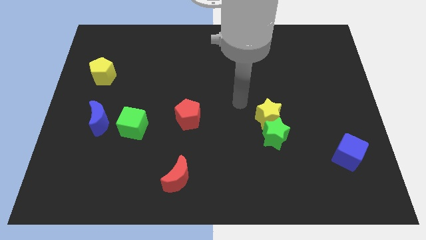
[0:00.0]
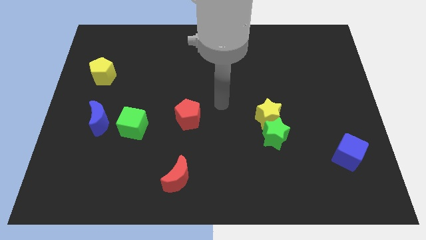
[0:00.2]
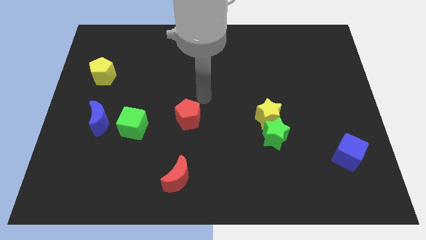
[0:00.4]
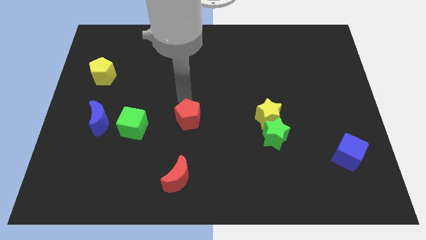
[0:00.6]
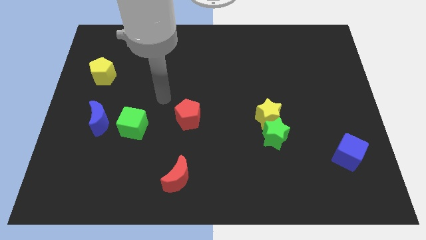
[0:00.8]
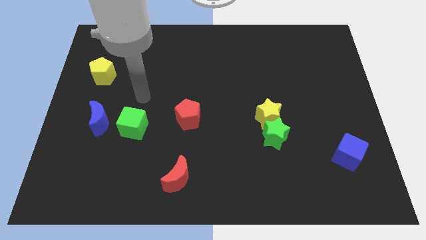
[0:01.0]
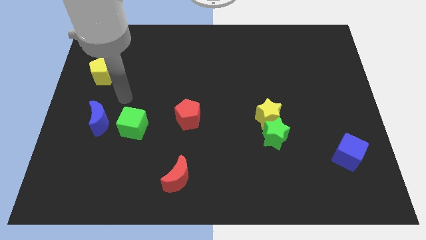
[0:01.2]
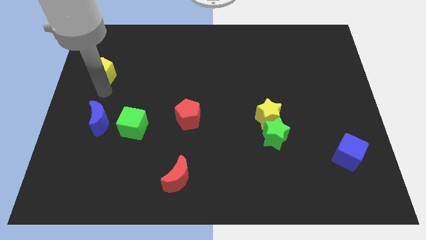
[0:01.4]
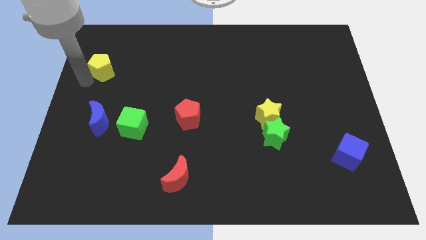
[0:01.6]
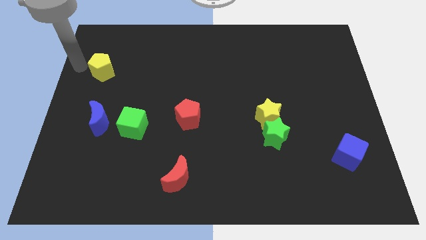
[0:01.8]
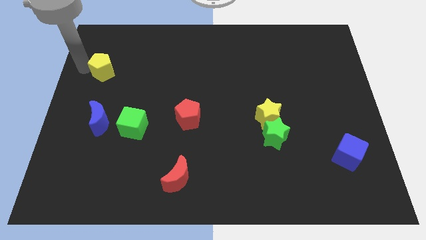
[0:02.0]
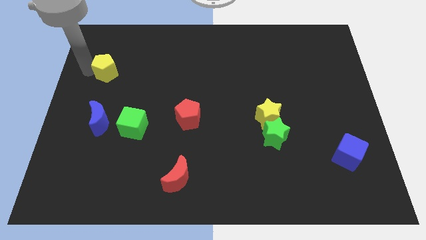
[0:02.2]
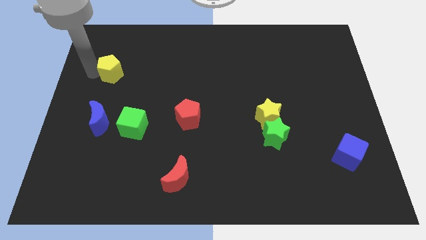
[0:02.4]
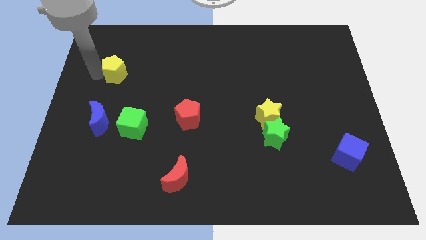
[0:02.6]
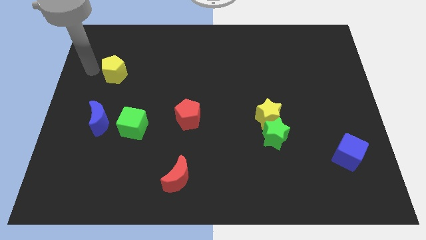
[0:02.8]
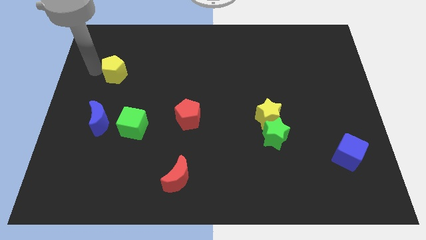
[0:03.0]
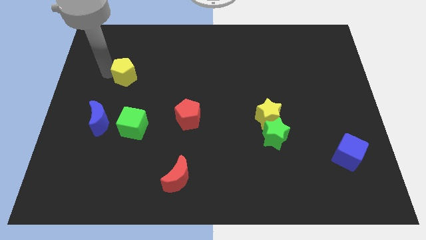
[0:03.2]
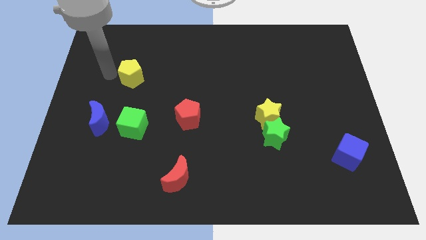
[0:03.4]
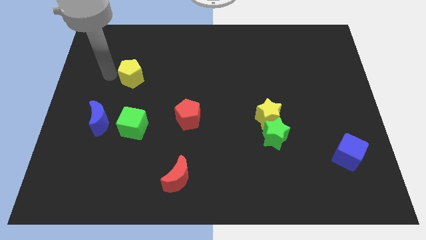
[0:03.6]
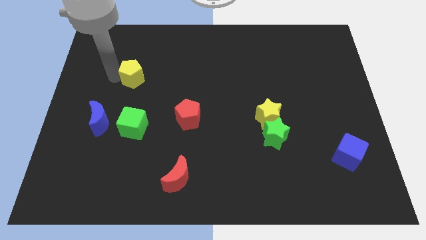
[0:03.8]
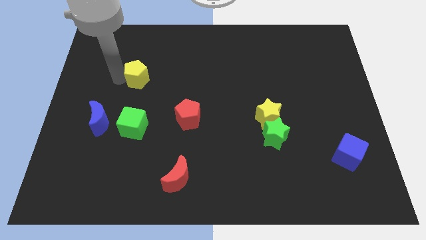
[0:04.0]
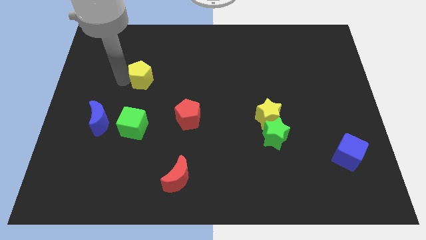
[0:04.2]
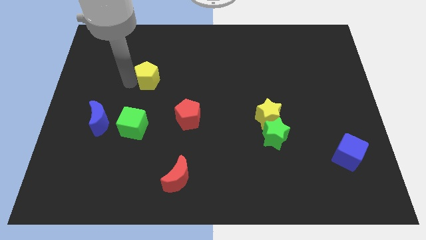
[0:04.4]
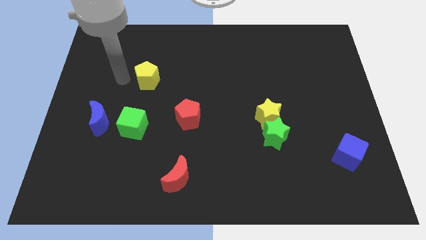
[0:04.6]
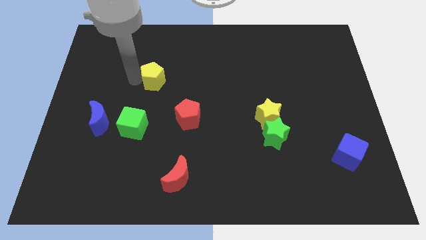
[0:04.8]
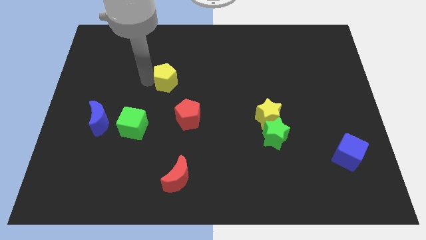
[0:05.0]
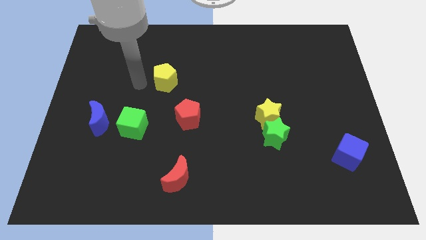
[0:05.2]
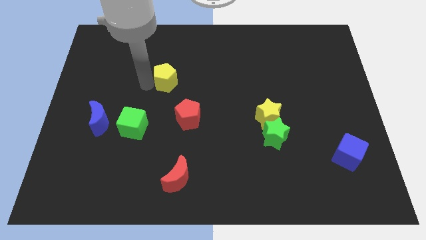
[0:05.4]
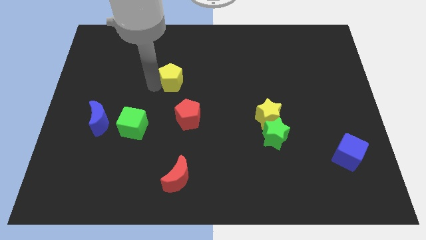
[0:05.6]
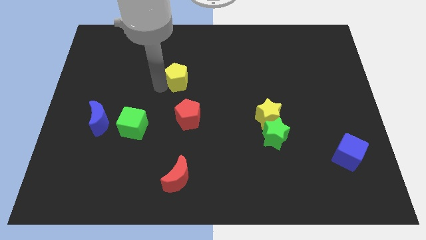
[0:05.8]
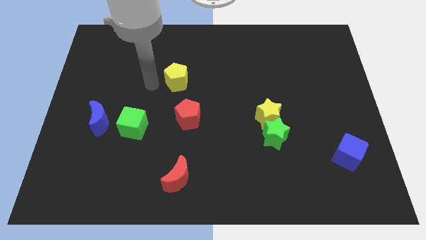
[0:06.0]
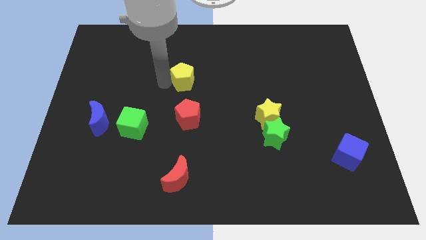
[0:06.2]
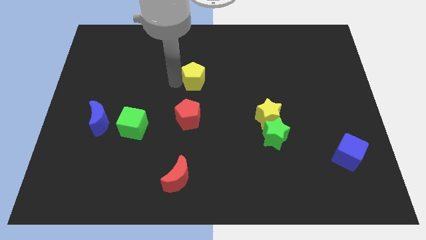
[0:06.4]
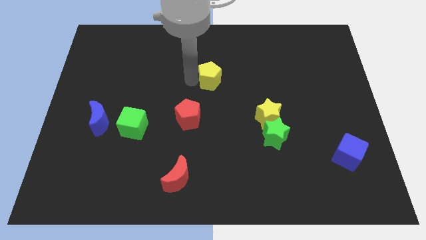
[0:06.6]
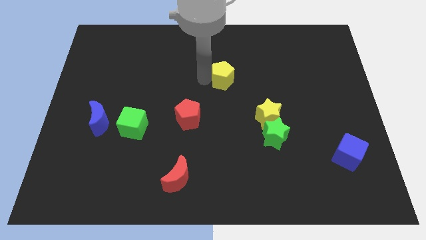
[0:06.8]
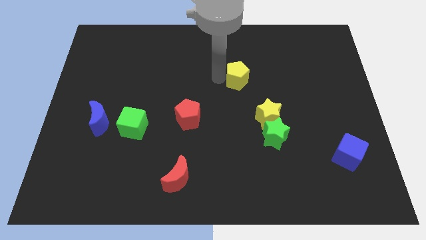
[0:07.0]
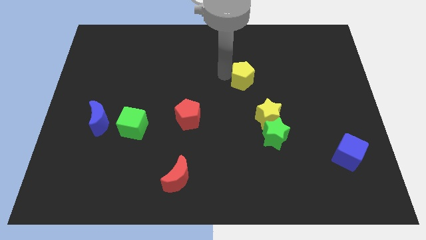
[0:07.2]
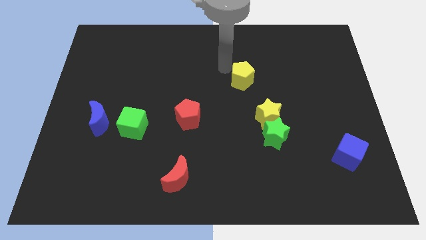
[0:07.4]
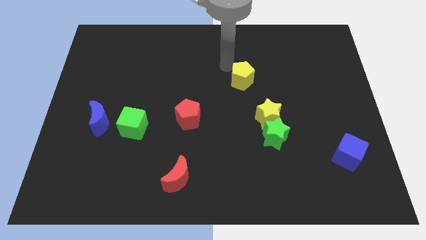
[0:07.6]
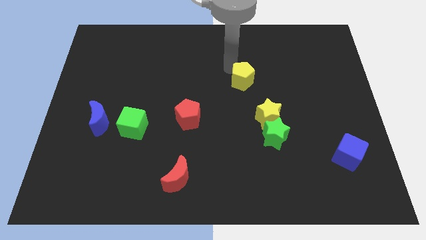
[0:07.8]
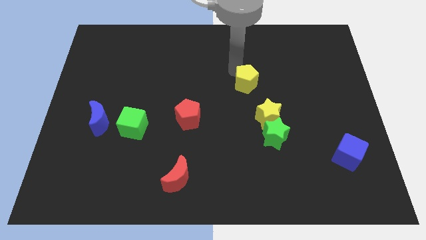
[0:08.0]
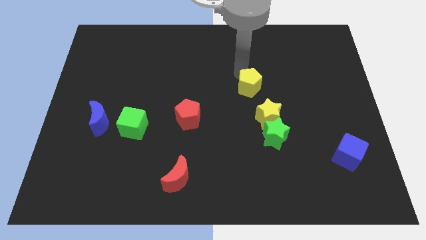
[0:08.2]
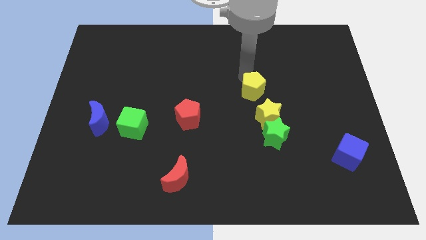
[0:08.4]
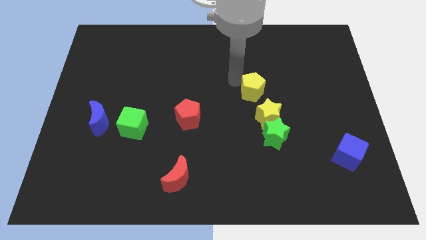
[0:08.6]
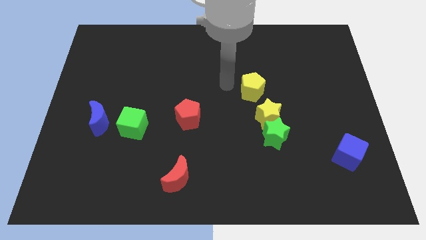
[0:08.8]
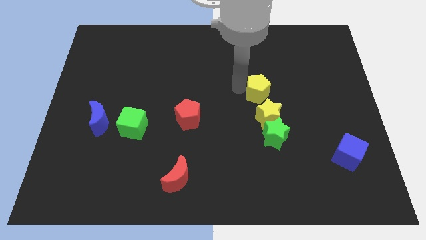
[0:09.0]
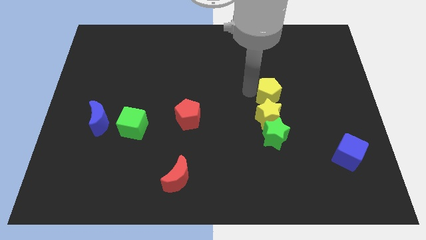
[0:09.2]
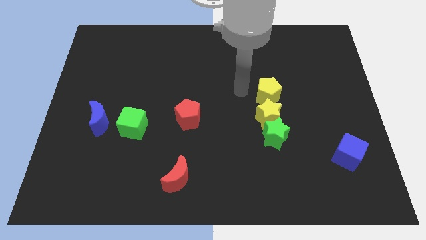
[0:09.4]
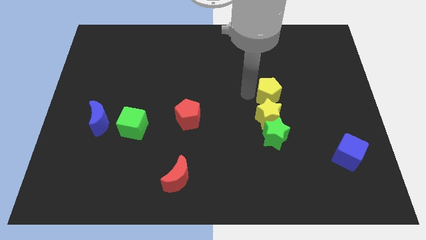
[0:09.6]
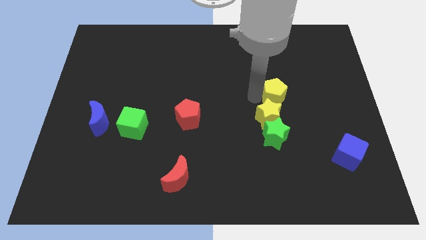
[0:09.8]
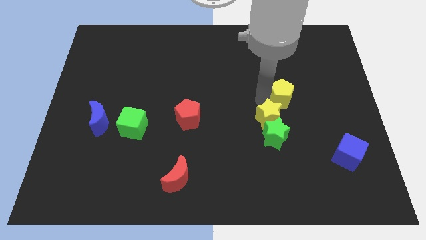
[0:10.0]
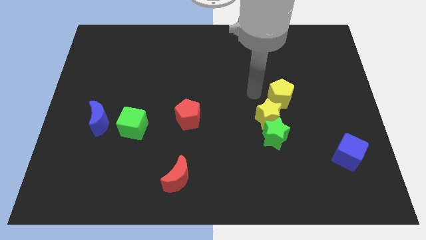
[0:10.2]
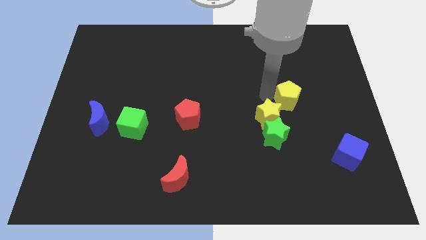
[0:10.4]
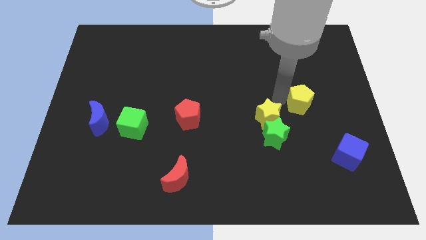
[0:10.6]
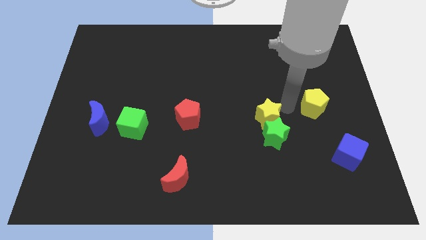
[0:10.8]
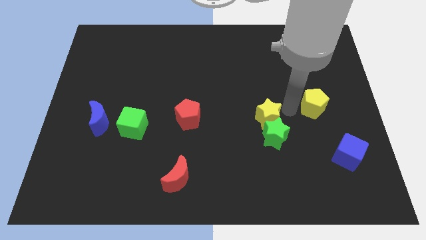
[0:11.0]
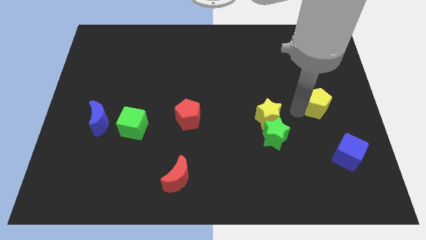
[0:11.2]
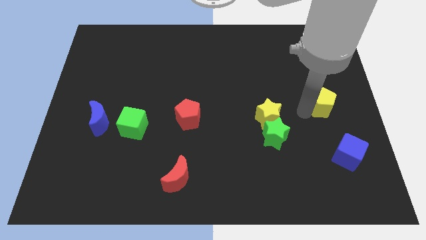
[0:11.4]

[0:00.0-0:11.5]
push the yellow pentagon to the center right

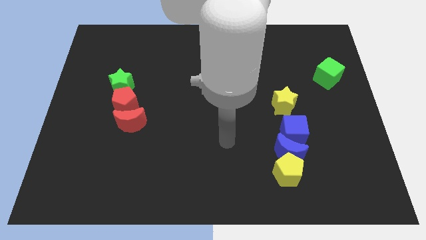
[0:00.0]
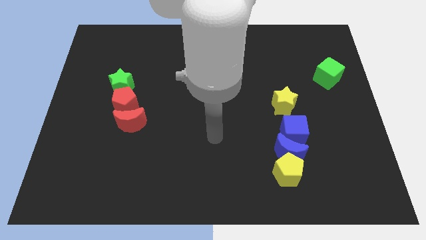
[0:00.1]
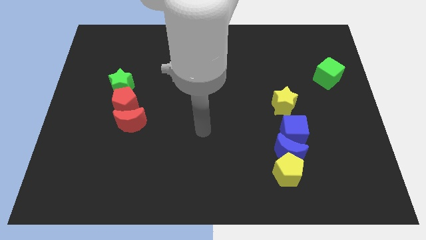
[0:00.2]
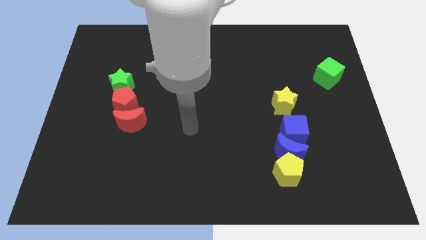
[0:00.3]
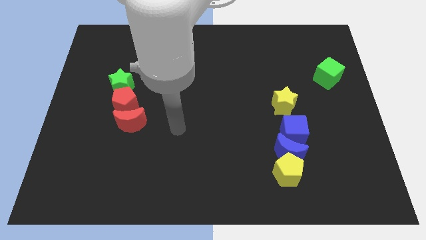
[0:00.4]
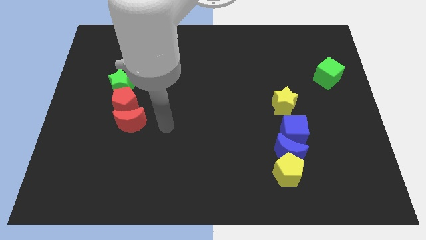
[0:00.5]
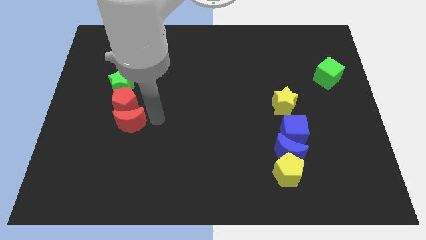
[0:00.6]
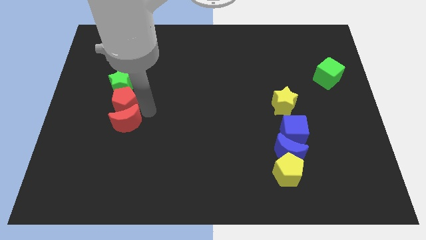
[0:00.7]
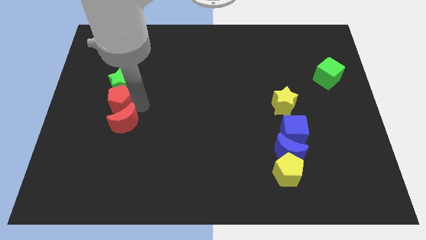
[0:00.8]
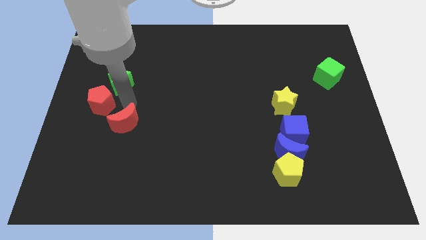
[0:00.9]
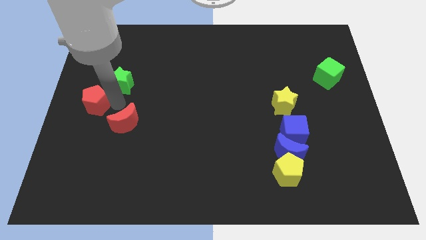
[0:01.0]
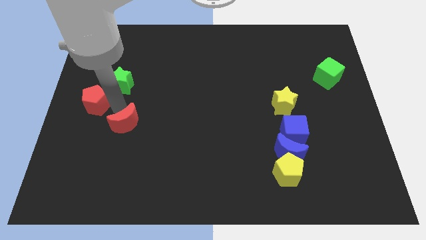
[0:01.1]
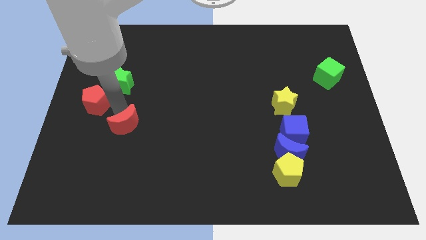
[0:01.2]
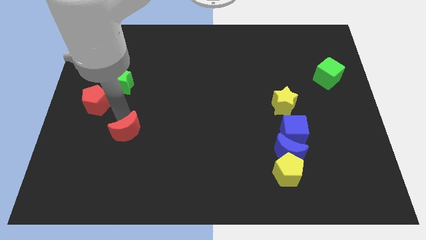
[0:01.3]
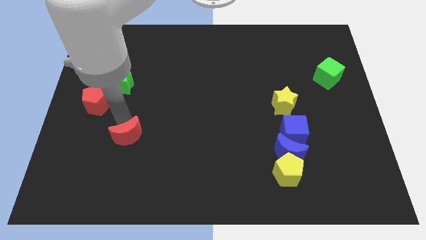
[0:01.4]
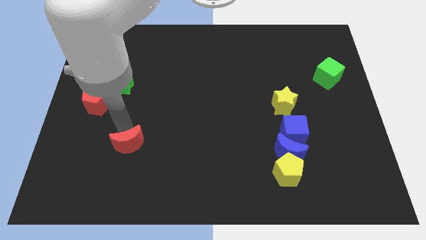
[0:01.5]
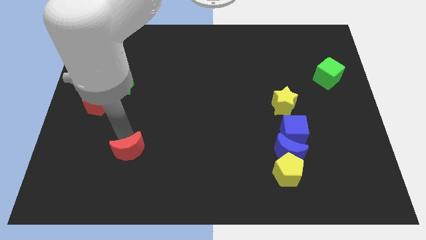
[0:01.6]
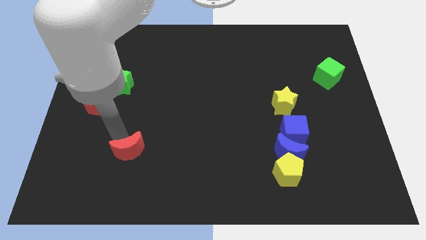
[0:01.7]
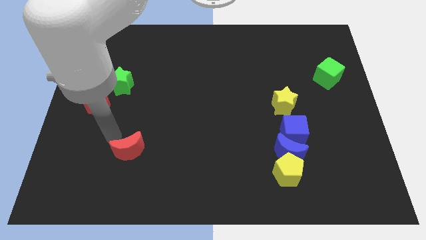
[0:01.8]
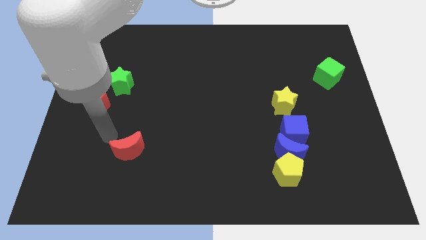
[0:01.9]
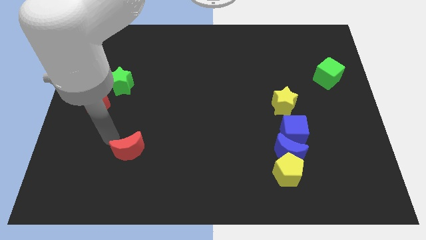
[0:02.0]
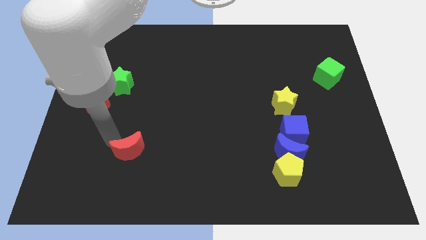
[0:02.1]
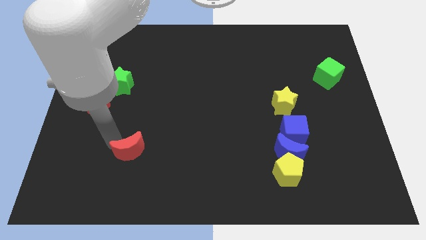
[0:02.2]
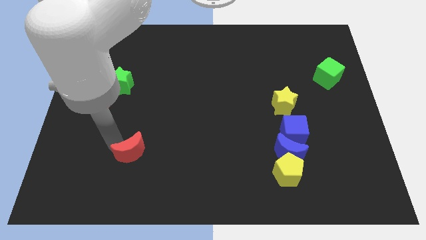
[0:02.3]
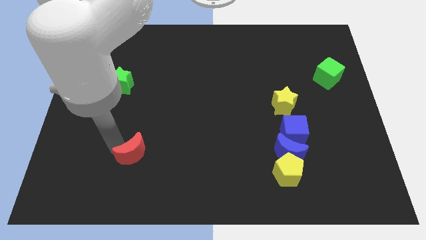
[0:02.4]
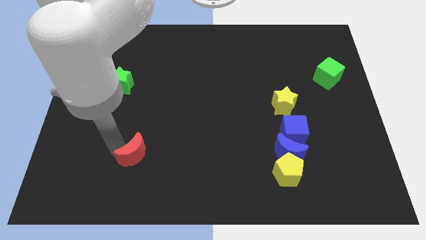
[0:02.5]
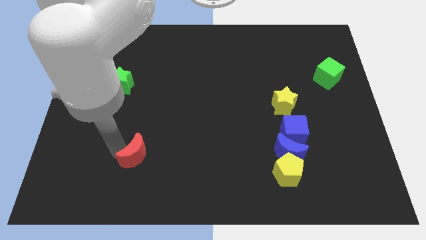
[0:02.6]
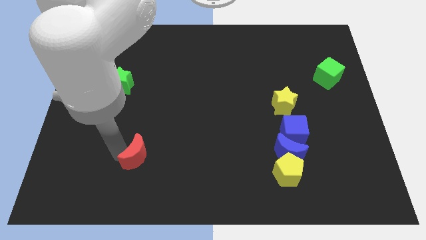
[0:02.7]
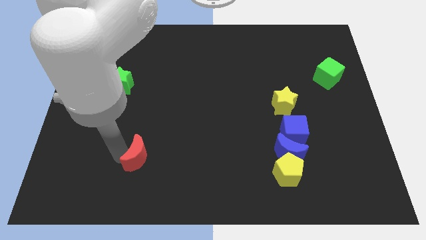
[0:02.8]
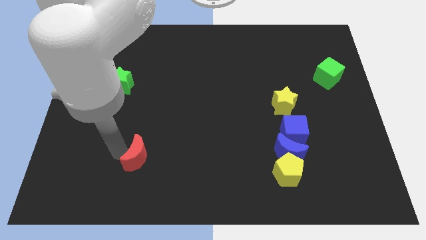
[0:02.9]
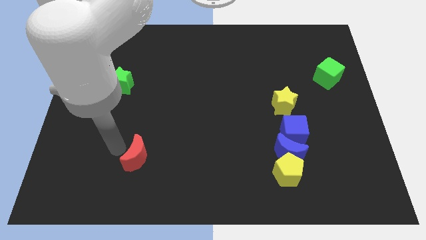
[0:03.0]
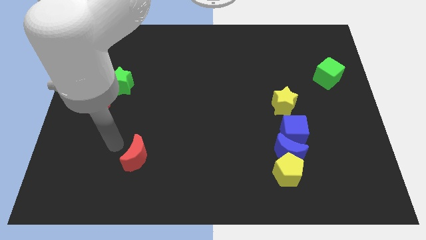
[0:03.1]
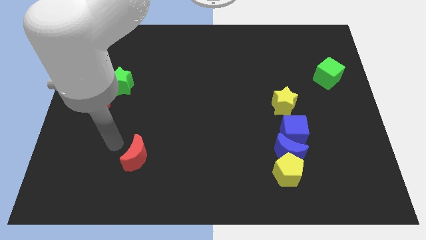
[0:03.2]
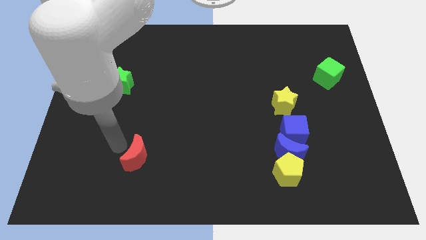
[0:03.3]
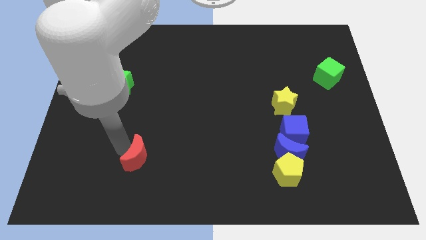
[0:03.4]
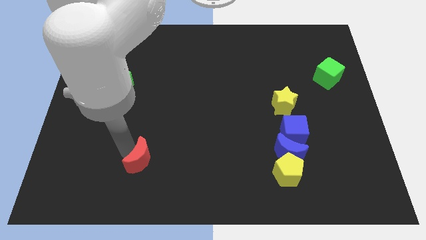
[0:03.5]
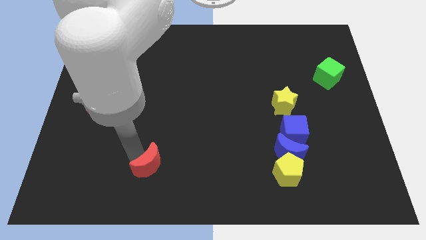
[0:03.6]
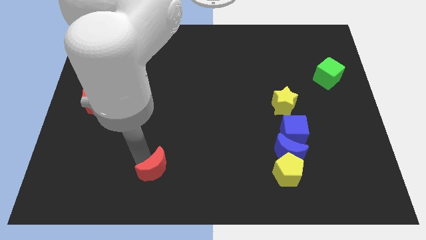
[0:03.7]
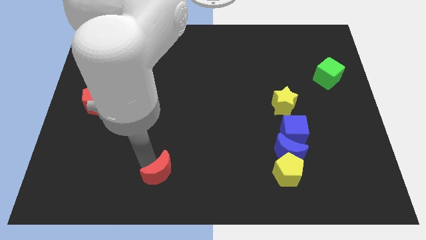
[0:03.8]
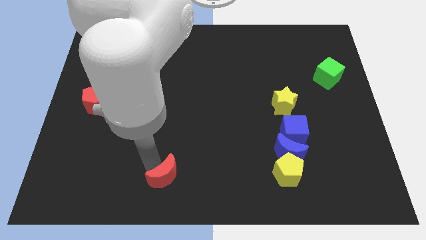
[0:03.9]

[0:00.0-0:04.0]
move the red moon to the bottom side
